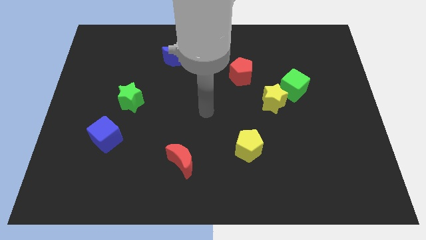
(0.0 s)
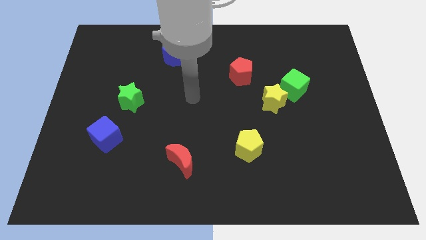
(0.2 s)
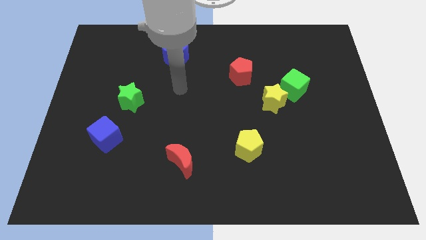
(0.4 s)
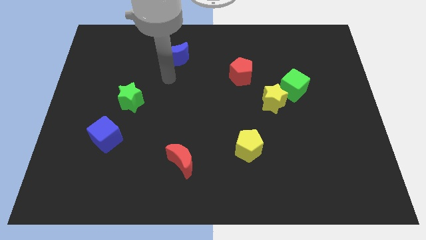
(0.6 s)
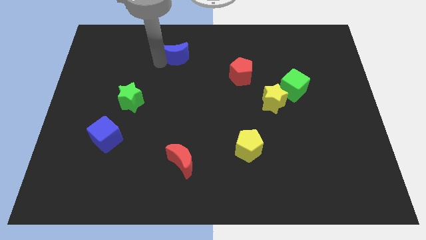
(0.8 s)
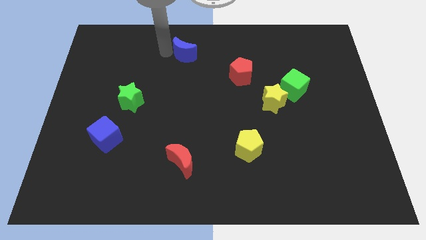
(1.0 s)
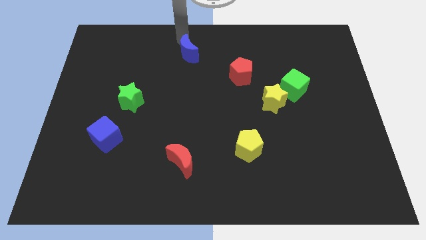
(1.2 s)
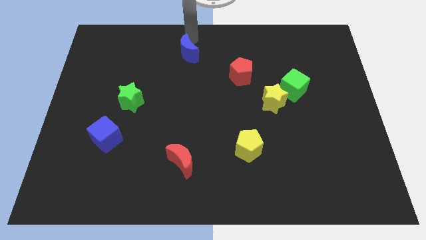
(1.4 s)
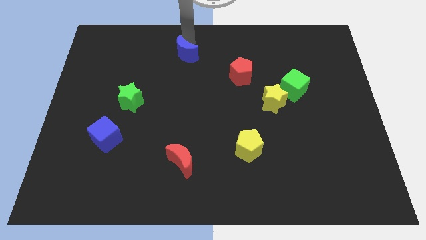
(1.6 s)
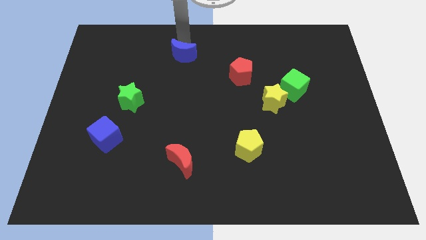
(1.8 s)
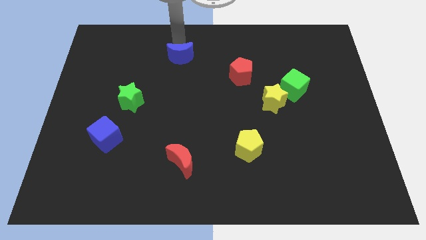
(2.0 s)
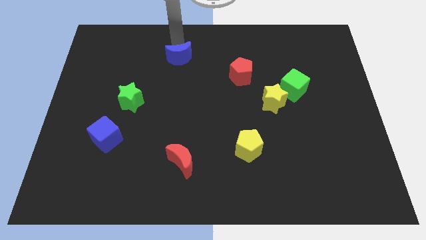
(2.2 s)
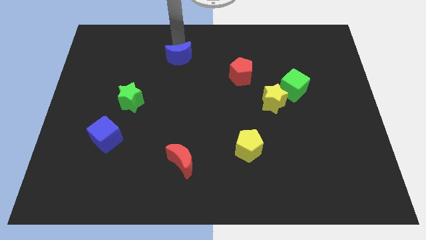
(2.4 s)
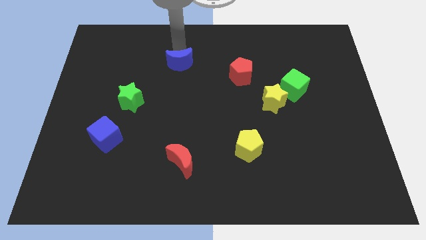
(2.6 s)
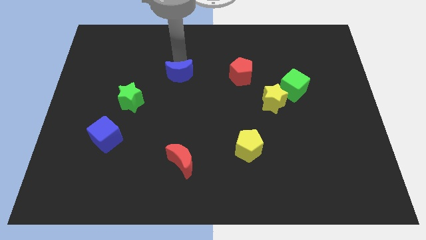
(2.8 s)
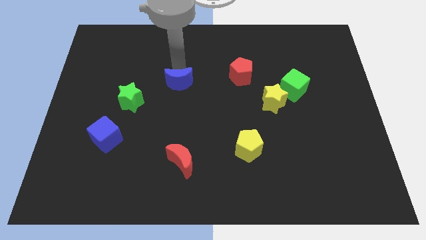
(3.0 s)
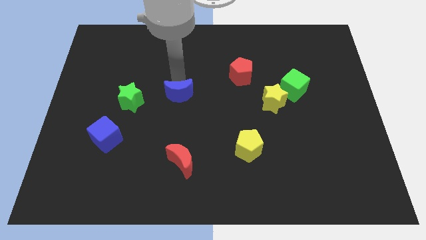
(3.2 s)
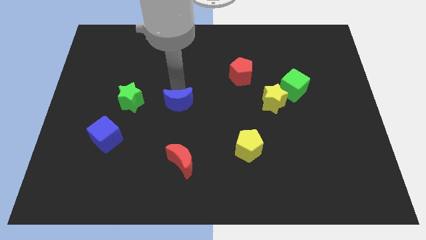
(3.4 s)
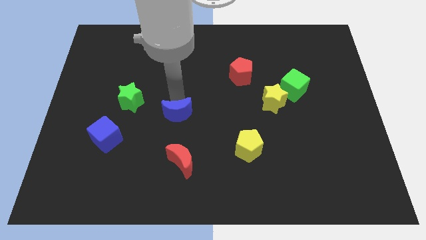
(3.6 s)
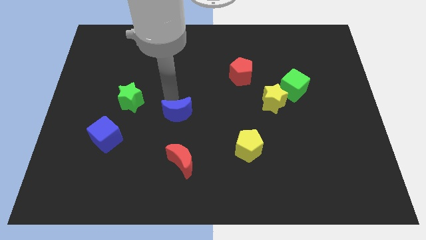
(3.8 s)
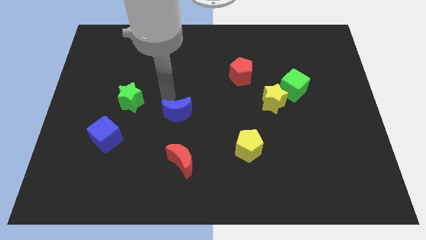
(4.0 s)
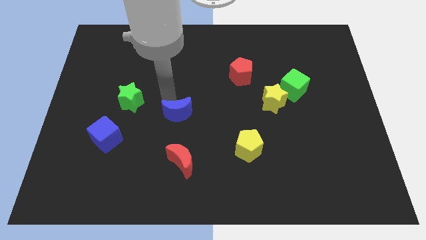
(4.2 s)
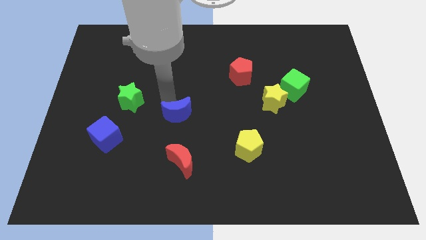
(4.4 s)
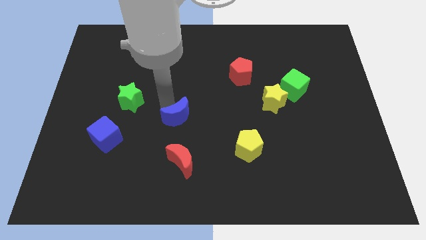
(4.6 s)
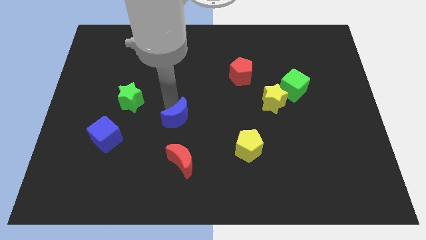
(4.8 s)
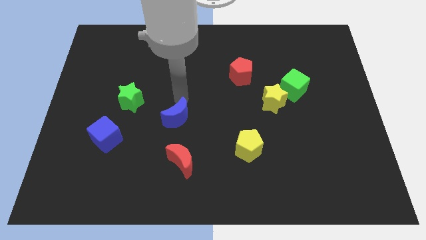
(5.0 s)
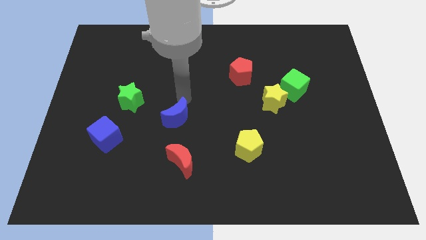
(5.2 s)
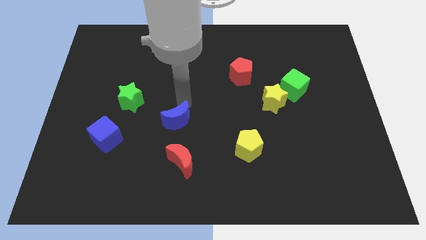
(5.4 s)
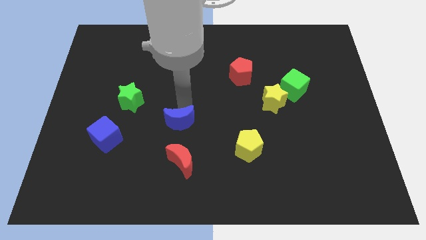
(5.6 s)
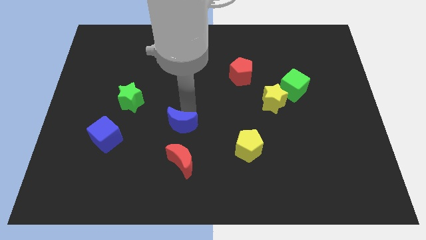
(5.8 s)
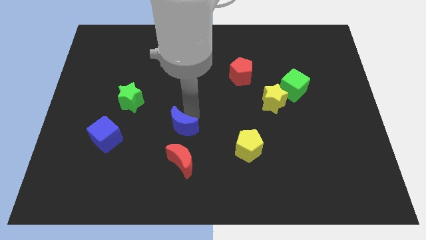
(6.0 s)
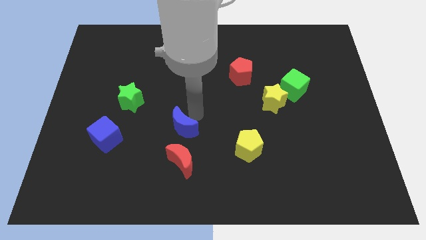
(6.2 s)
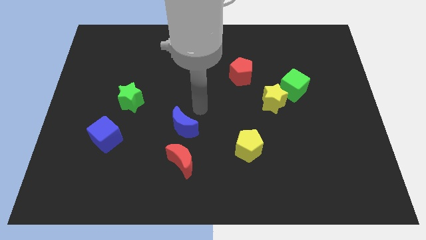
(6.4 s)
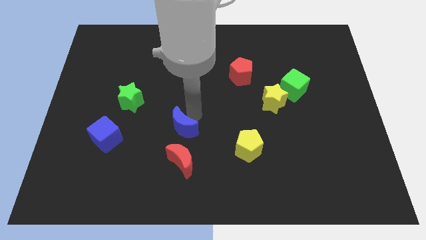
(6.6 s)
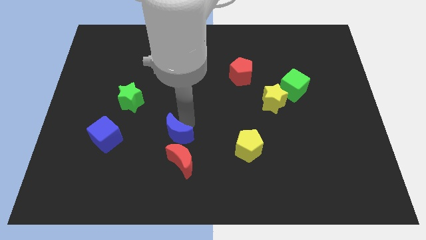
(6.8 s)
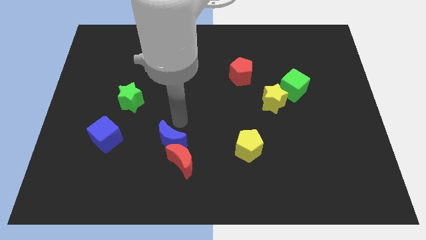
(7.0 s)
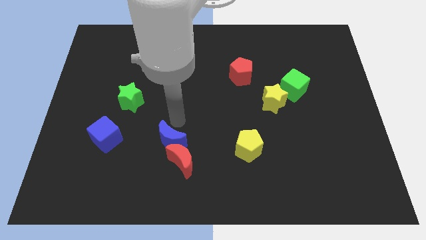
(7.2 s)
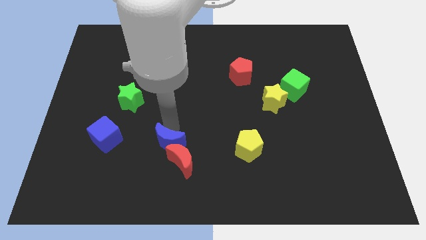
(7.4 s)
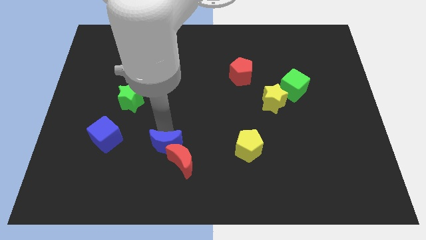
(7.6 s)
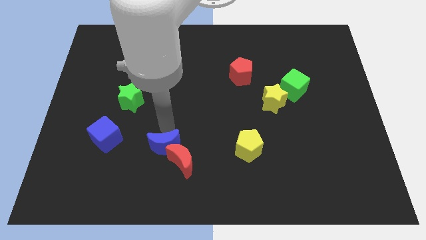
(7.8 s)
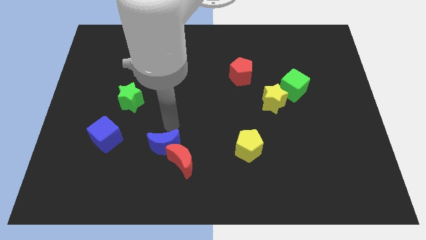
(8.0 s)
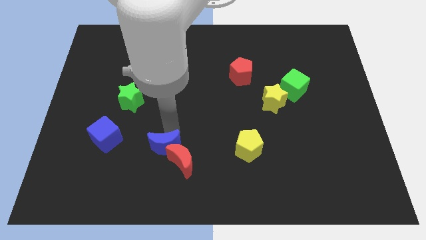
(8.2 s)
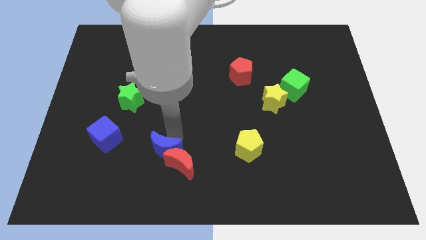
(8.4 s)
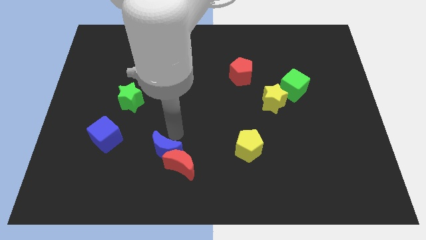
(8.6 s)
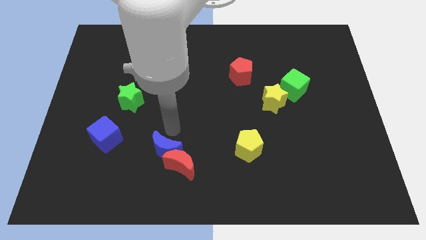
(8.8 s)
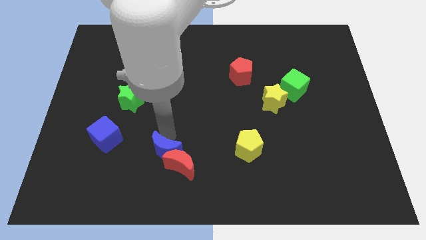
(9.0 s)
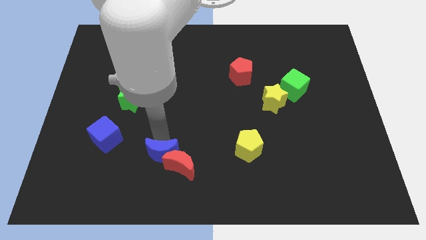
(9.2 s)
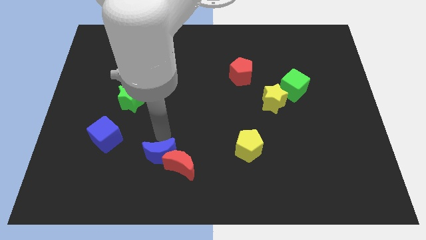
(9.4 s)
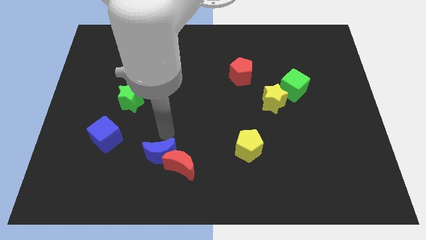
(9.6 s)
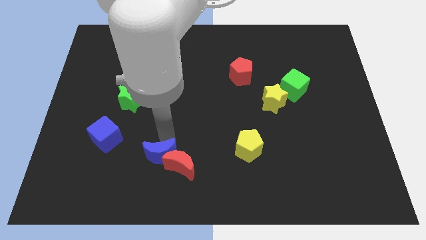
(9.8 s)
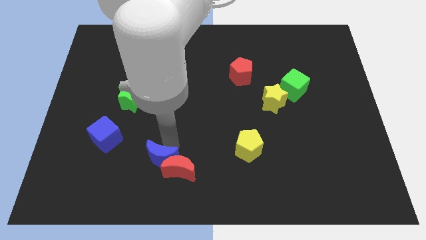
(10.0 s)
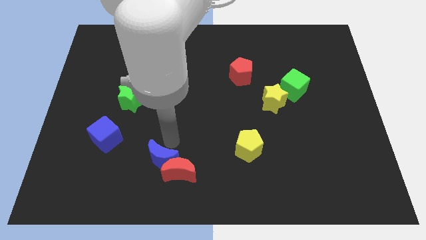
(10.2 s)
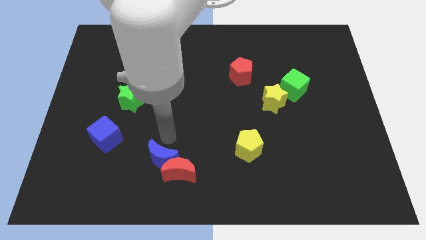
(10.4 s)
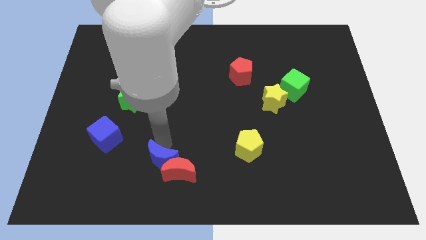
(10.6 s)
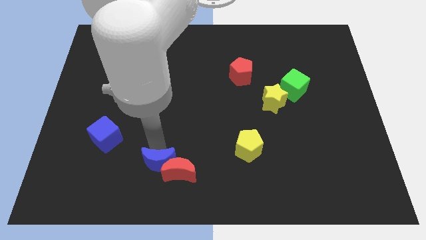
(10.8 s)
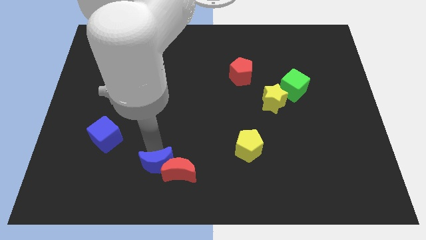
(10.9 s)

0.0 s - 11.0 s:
push the blue moon to the bottom left of the red moon

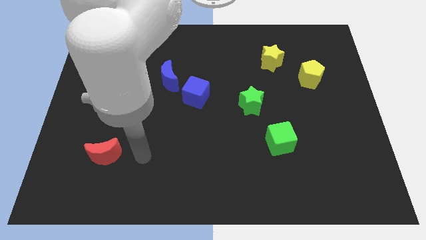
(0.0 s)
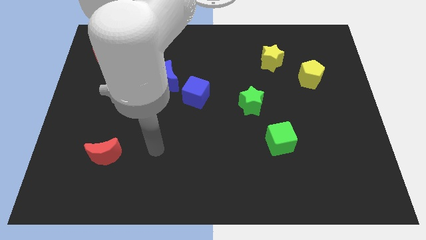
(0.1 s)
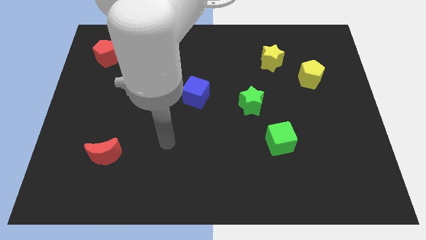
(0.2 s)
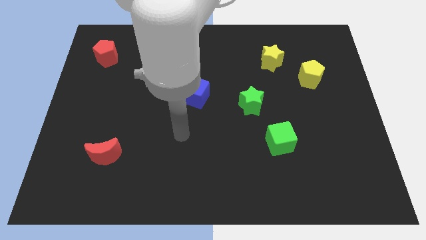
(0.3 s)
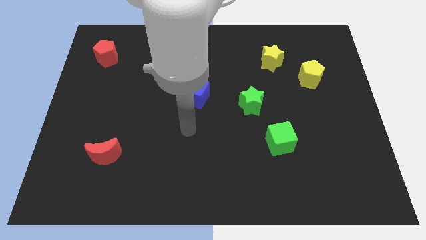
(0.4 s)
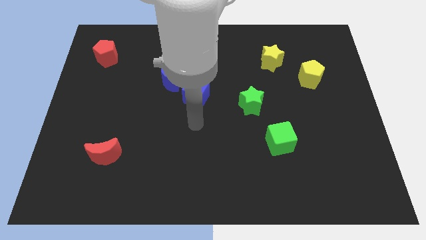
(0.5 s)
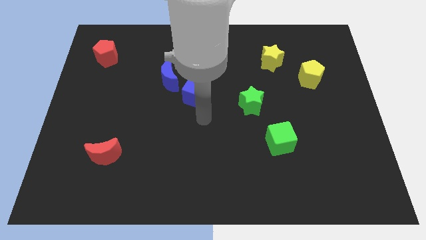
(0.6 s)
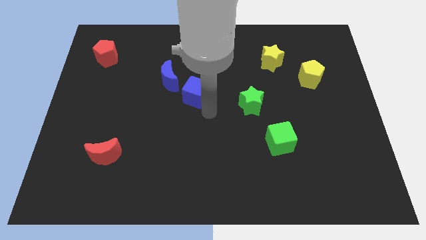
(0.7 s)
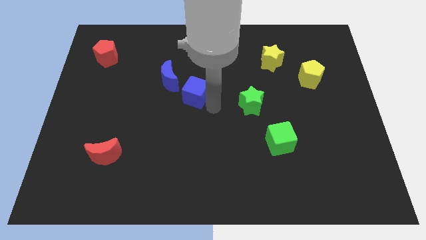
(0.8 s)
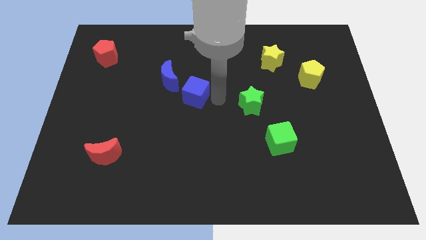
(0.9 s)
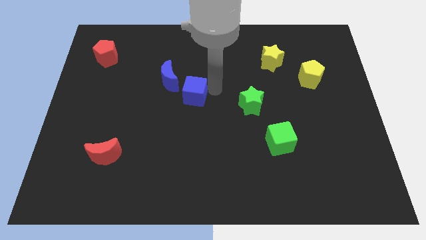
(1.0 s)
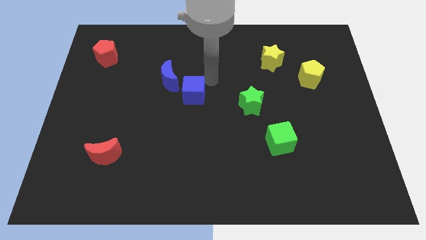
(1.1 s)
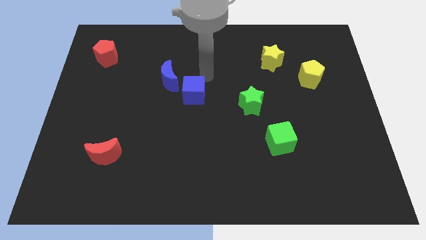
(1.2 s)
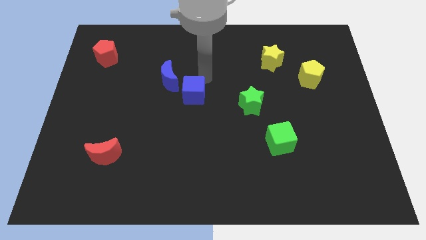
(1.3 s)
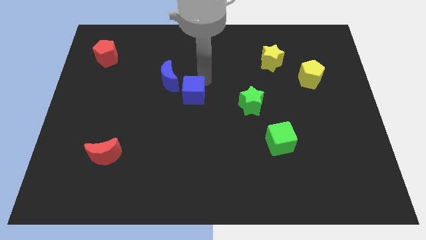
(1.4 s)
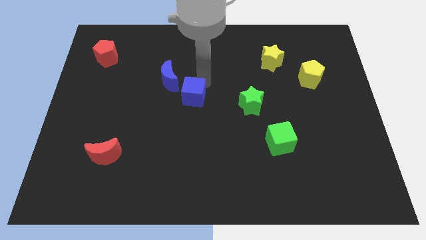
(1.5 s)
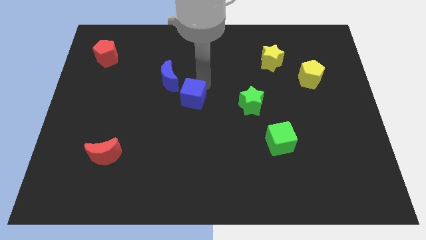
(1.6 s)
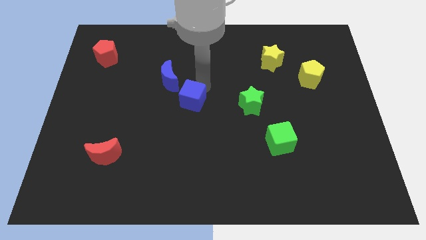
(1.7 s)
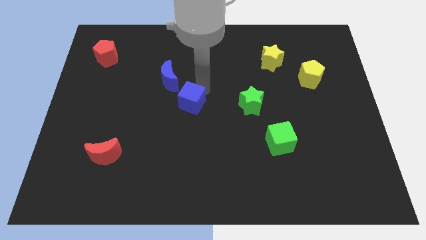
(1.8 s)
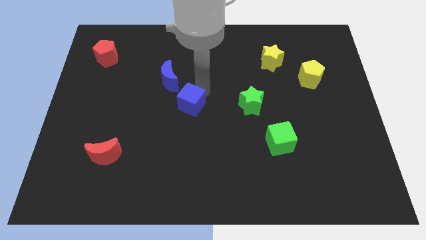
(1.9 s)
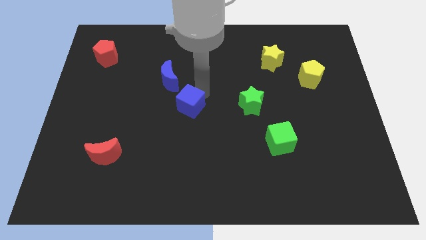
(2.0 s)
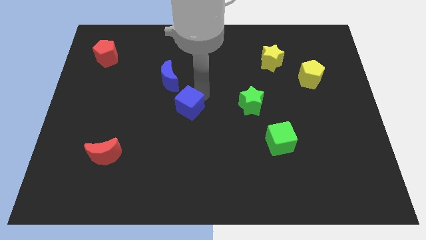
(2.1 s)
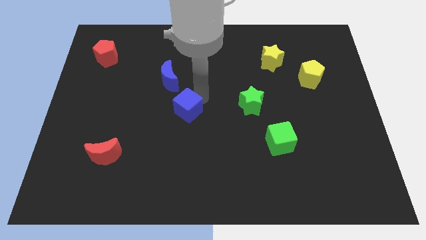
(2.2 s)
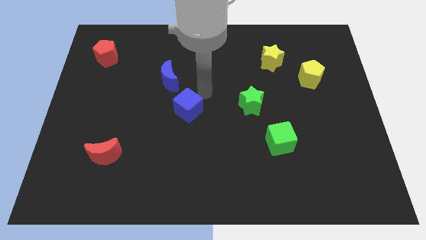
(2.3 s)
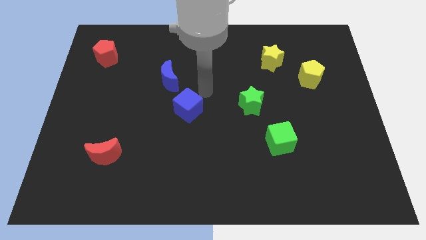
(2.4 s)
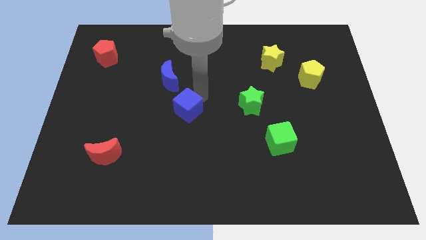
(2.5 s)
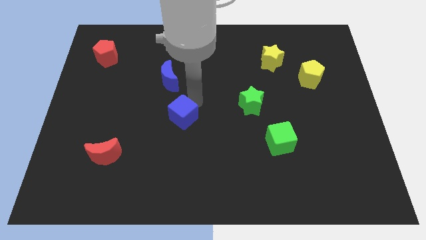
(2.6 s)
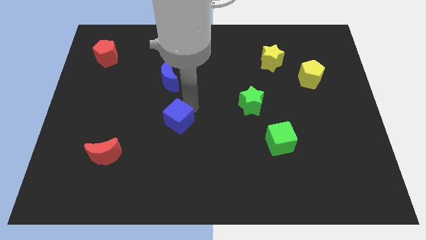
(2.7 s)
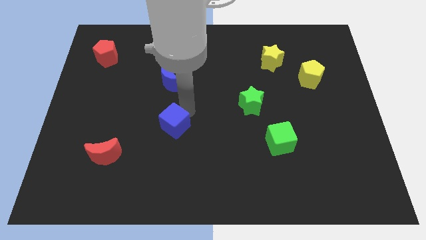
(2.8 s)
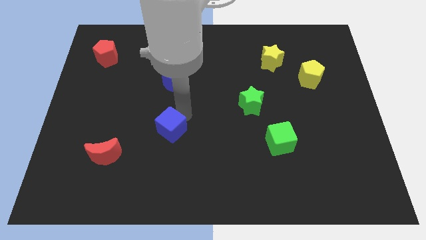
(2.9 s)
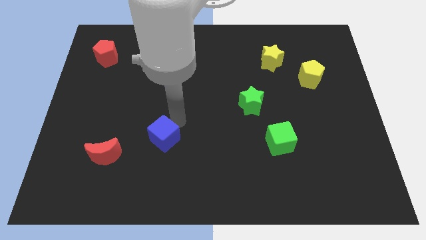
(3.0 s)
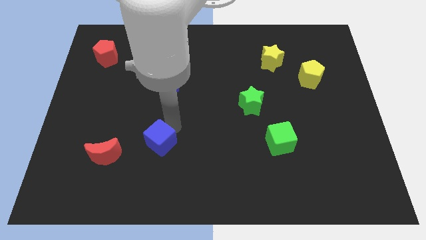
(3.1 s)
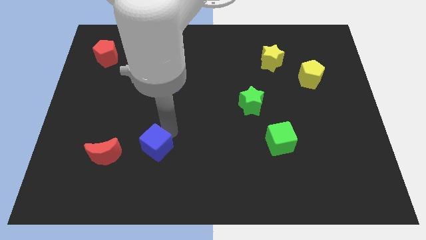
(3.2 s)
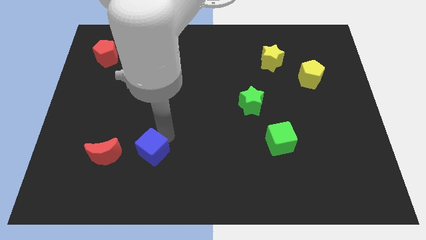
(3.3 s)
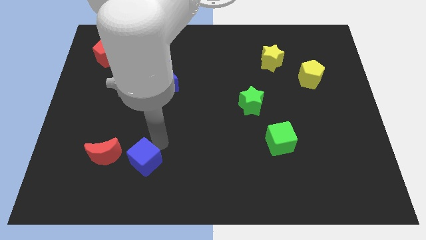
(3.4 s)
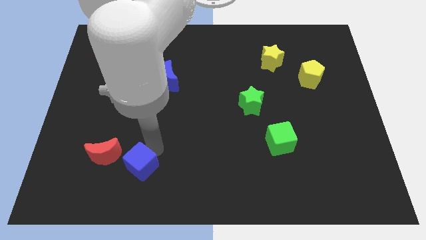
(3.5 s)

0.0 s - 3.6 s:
move the blue cube to the bottom right of the red moon
